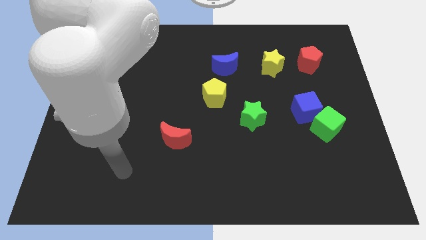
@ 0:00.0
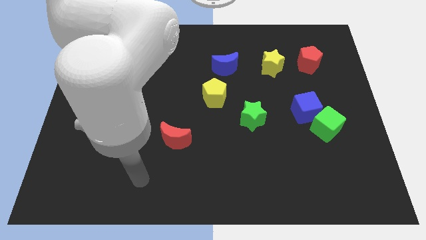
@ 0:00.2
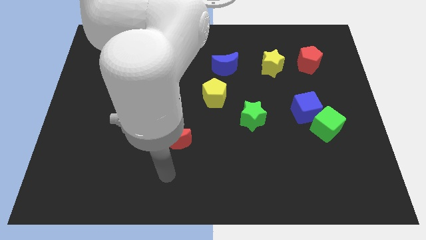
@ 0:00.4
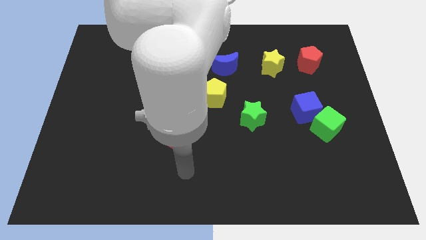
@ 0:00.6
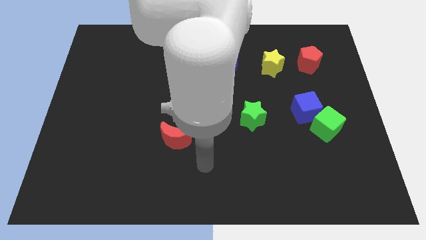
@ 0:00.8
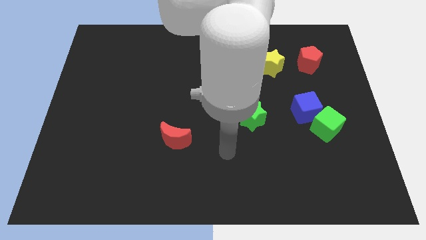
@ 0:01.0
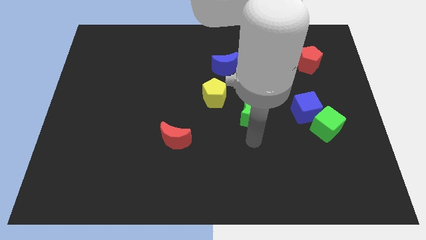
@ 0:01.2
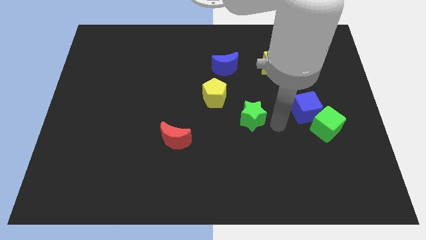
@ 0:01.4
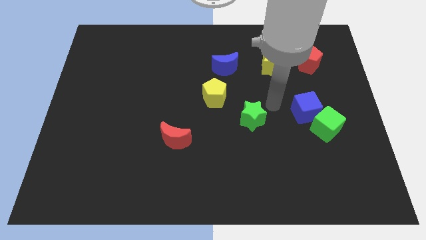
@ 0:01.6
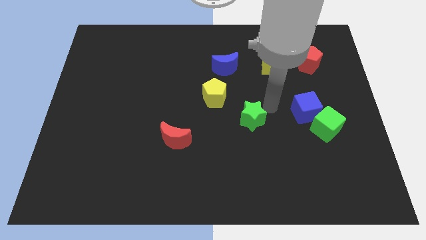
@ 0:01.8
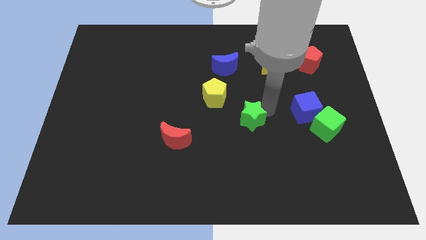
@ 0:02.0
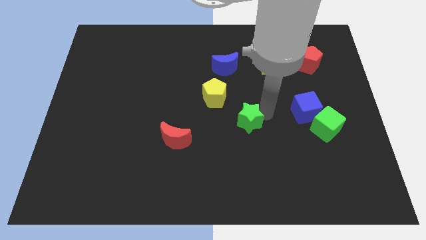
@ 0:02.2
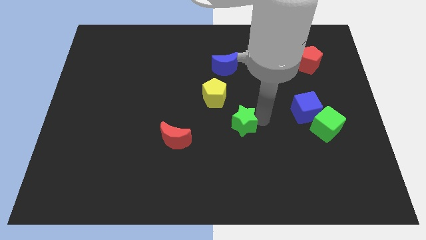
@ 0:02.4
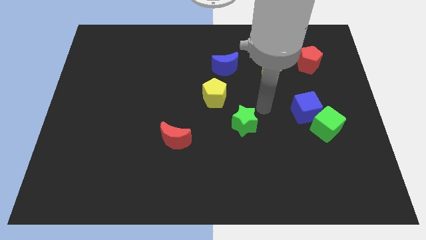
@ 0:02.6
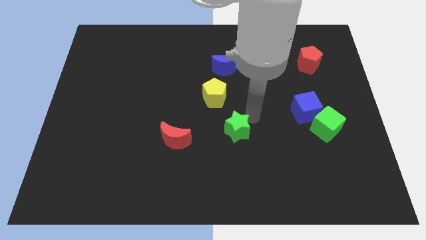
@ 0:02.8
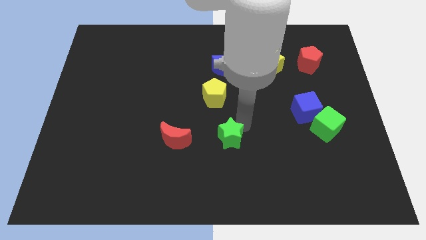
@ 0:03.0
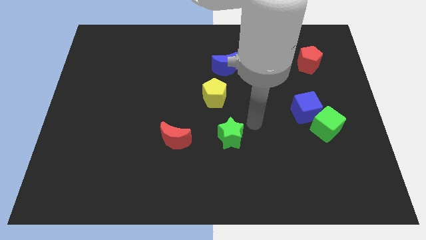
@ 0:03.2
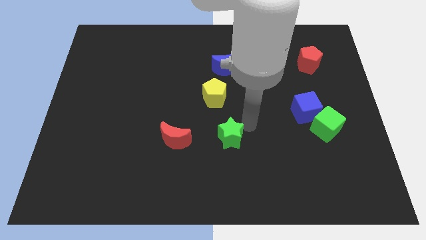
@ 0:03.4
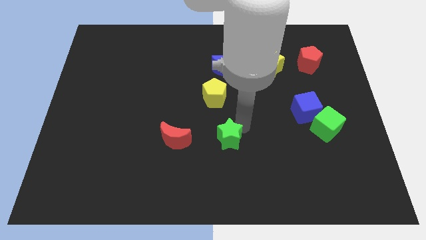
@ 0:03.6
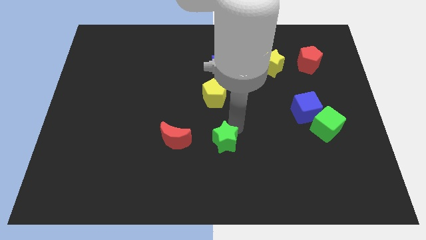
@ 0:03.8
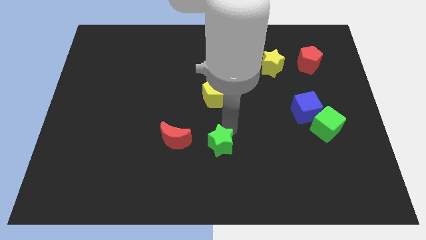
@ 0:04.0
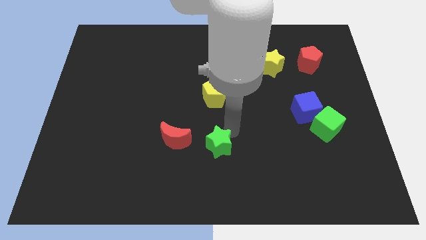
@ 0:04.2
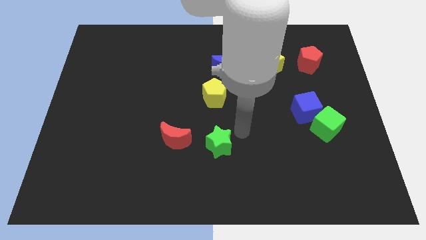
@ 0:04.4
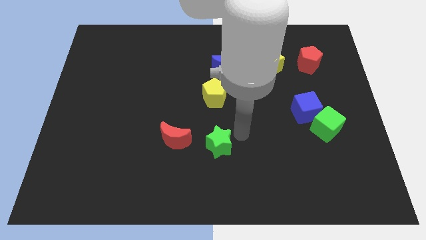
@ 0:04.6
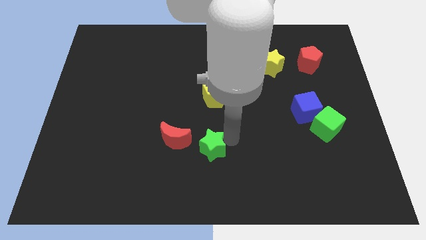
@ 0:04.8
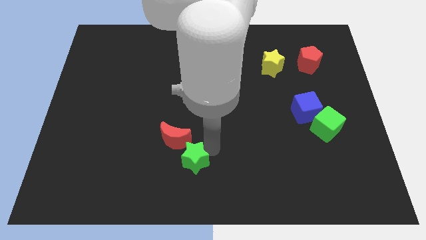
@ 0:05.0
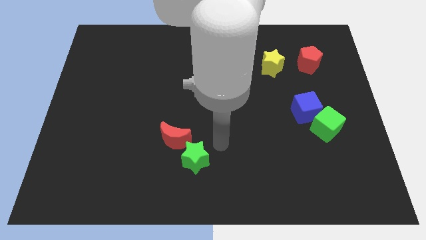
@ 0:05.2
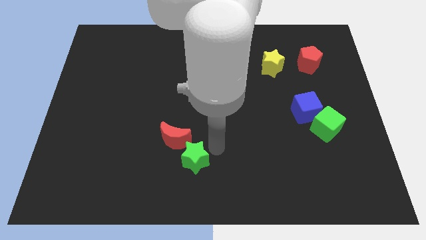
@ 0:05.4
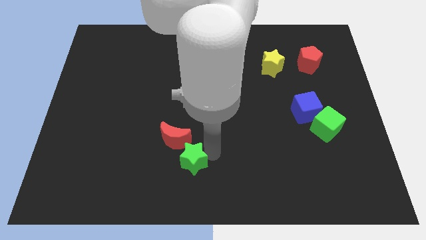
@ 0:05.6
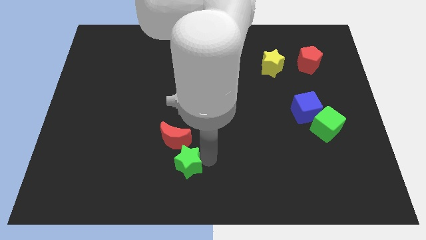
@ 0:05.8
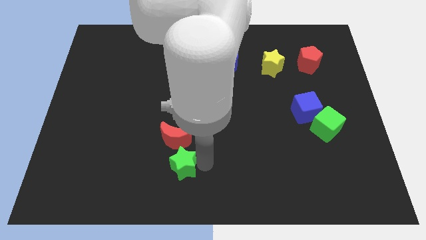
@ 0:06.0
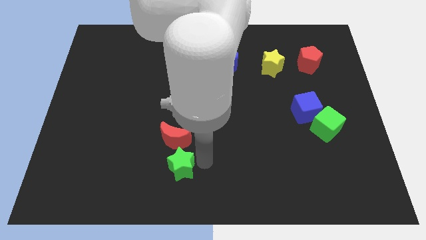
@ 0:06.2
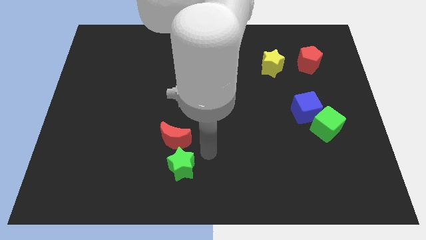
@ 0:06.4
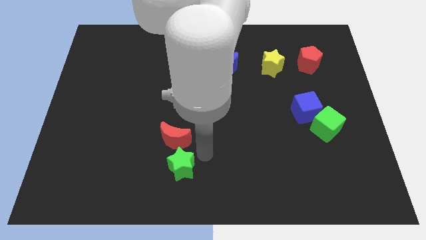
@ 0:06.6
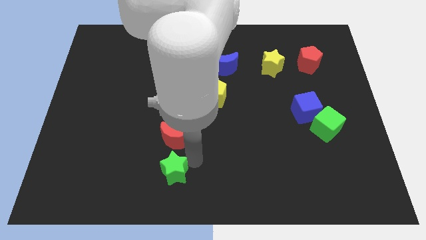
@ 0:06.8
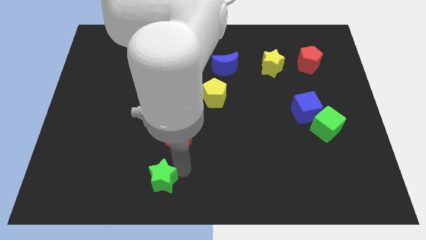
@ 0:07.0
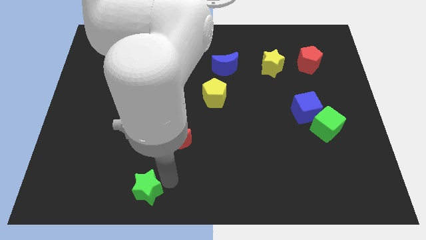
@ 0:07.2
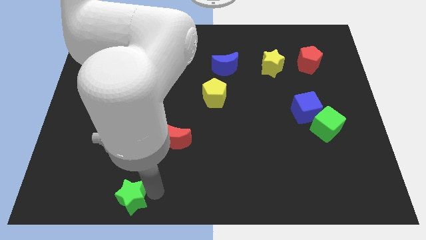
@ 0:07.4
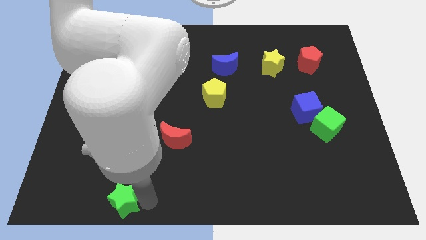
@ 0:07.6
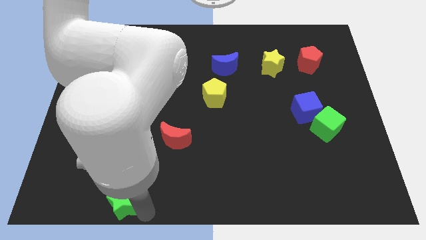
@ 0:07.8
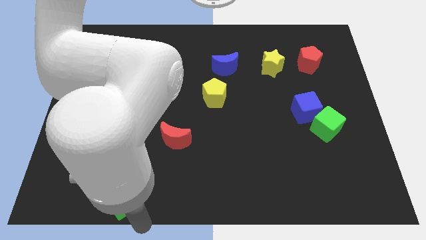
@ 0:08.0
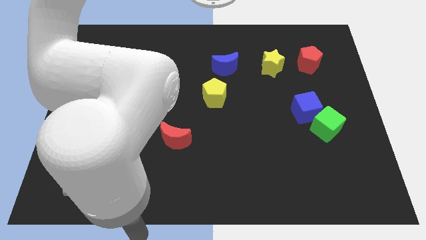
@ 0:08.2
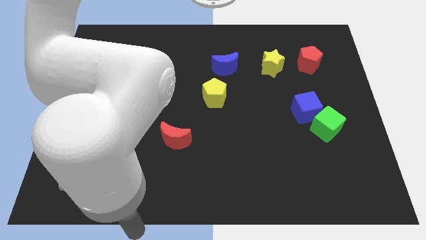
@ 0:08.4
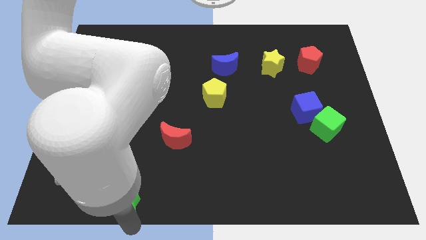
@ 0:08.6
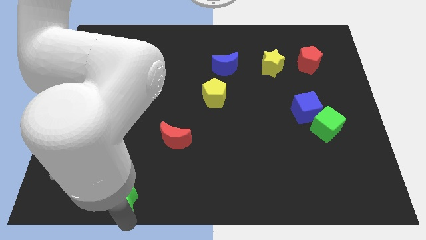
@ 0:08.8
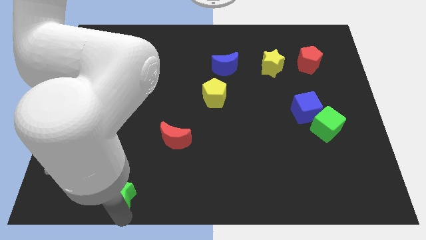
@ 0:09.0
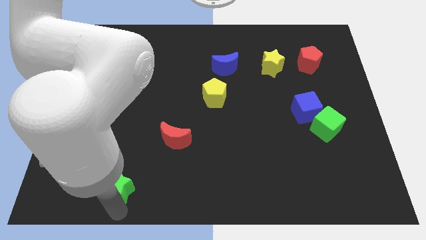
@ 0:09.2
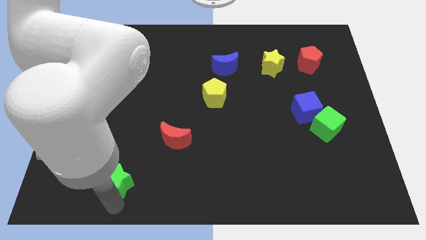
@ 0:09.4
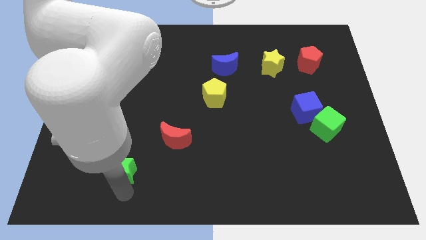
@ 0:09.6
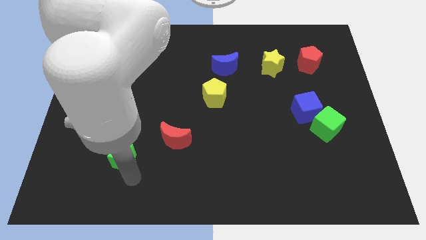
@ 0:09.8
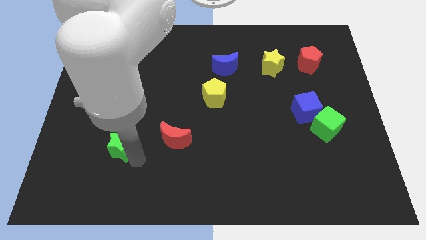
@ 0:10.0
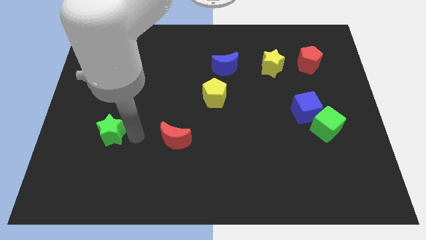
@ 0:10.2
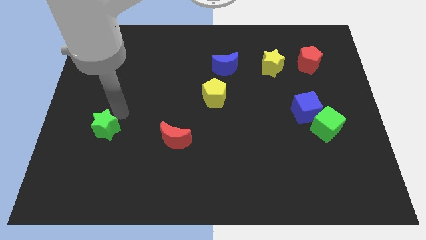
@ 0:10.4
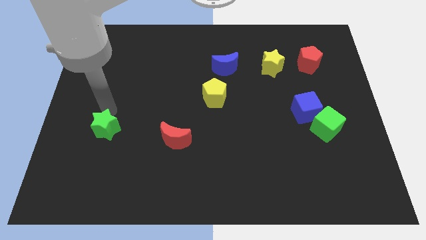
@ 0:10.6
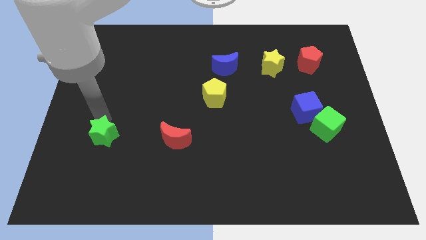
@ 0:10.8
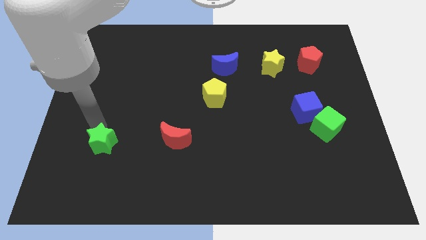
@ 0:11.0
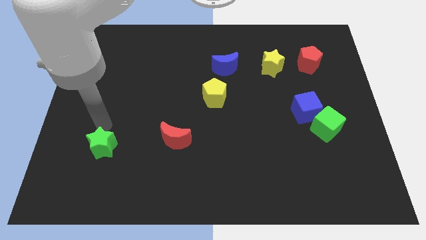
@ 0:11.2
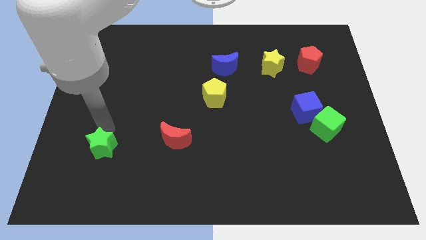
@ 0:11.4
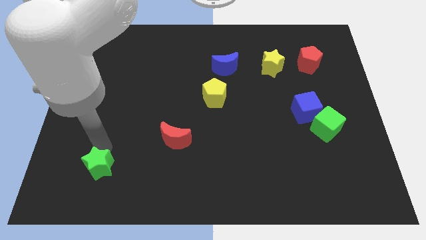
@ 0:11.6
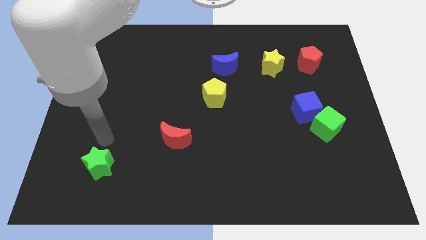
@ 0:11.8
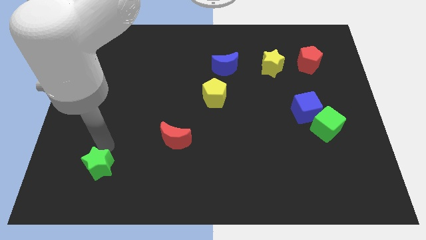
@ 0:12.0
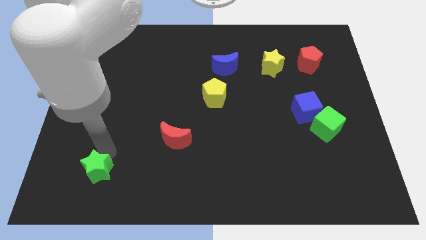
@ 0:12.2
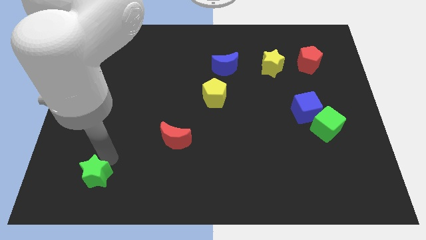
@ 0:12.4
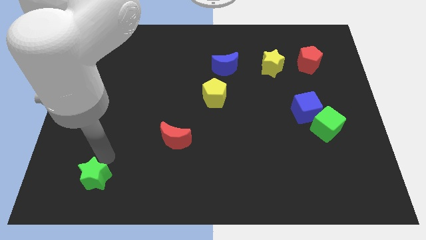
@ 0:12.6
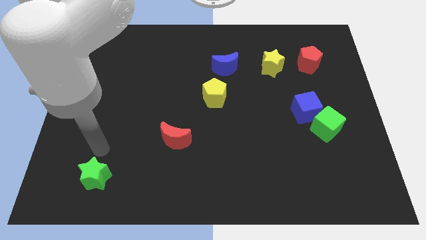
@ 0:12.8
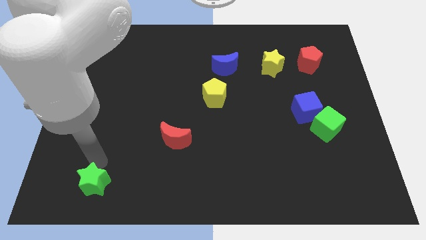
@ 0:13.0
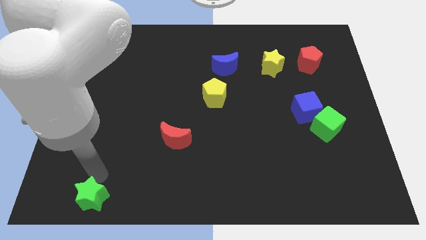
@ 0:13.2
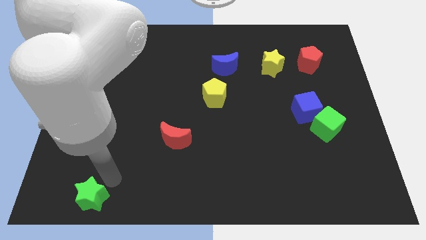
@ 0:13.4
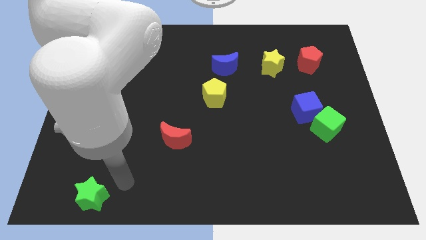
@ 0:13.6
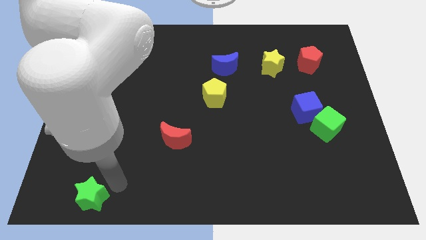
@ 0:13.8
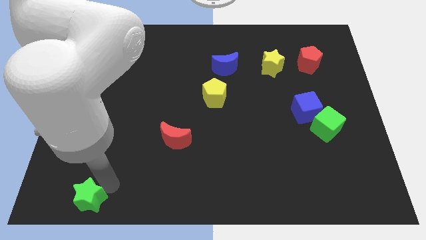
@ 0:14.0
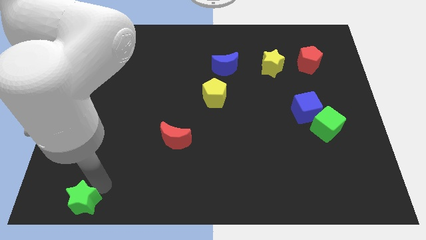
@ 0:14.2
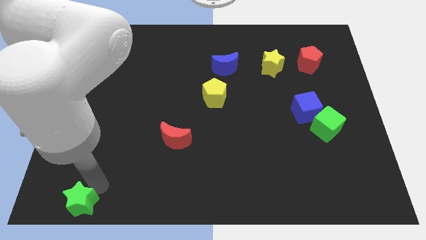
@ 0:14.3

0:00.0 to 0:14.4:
put the green star to the bottom left of the board
